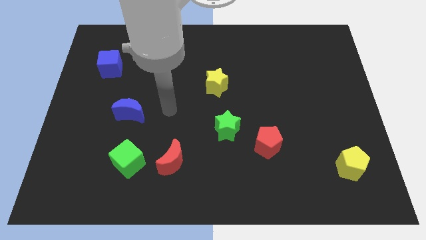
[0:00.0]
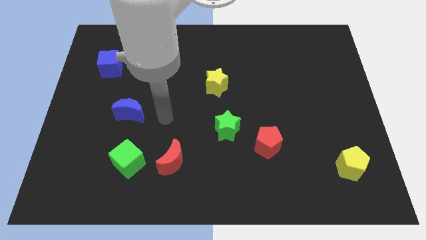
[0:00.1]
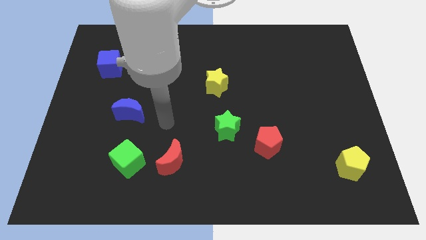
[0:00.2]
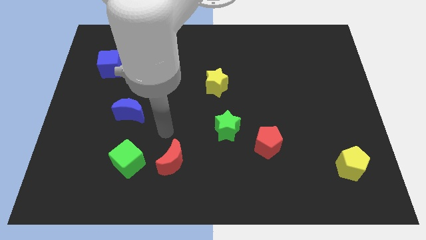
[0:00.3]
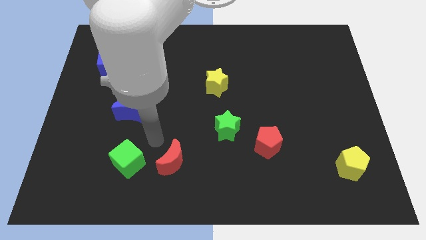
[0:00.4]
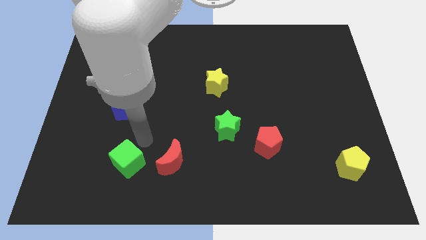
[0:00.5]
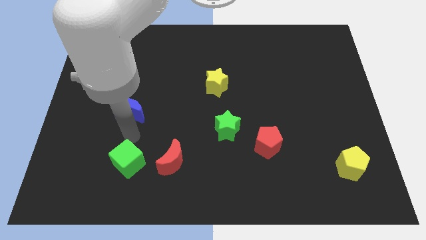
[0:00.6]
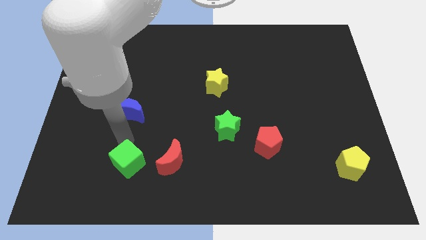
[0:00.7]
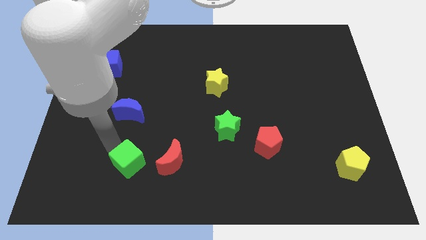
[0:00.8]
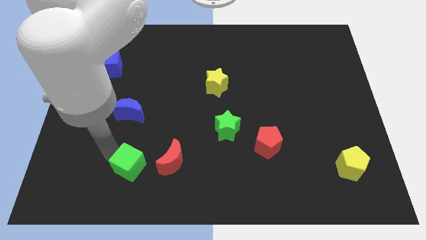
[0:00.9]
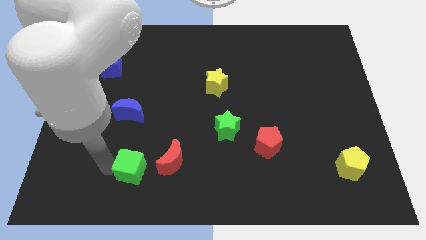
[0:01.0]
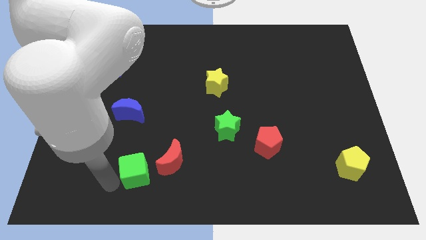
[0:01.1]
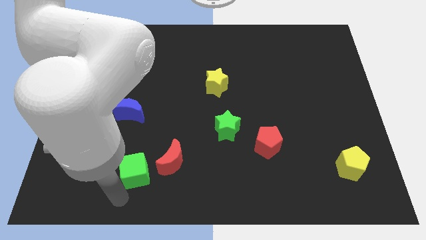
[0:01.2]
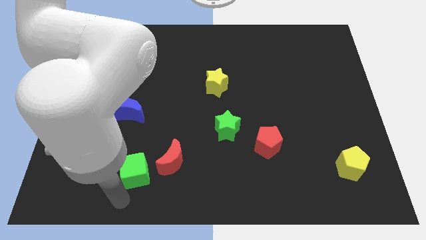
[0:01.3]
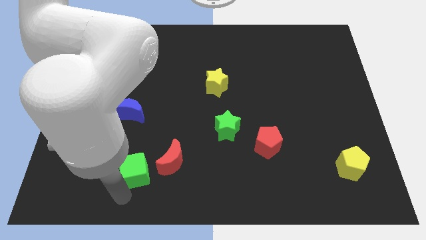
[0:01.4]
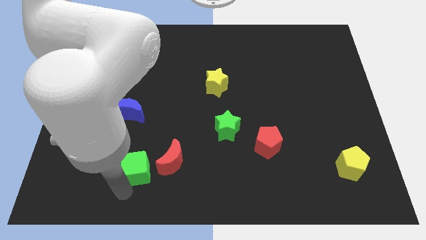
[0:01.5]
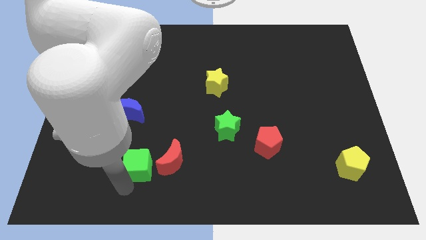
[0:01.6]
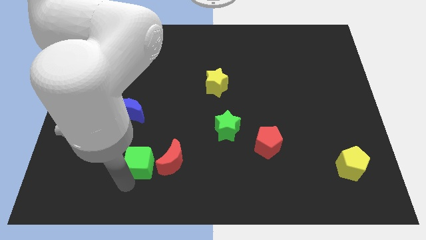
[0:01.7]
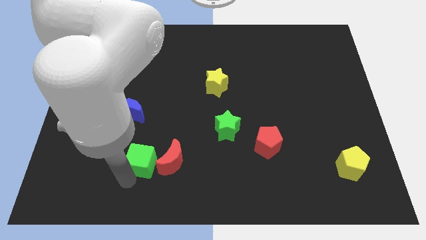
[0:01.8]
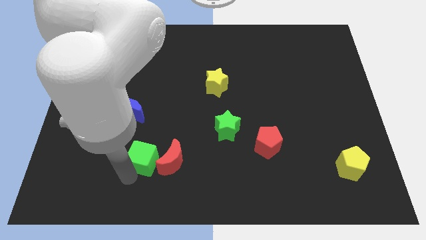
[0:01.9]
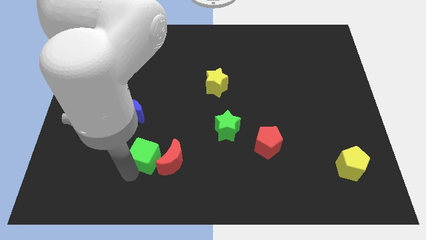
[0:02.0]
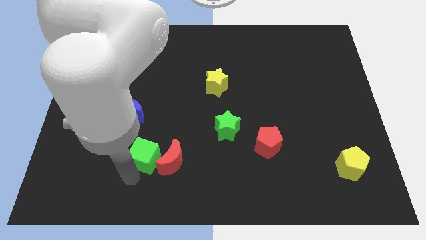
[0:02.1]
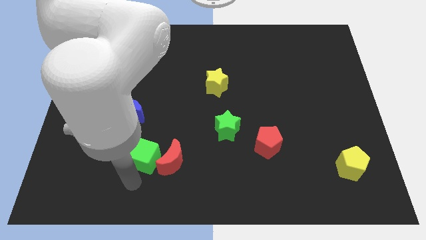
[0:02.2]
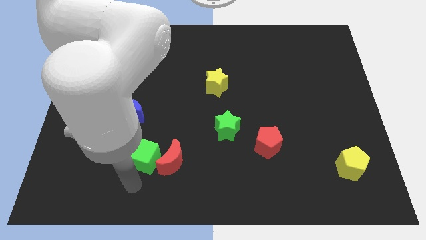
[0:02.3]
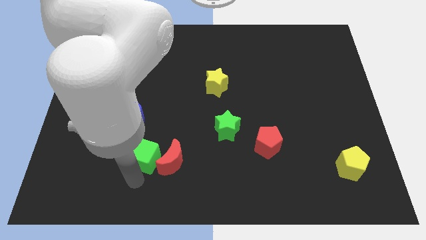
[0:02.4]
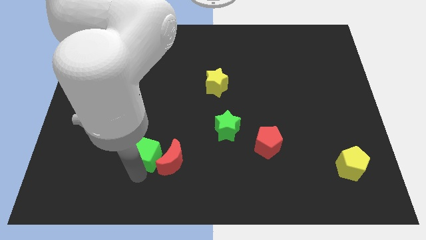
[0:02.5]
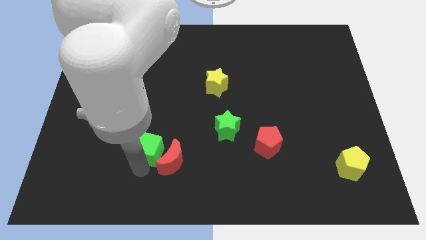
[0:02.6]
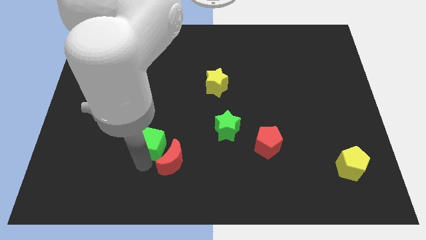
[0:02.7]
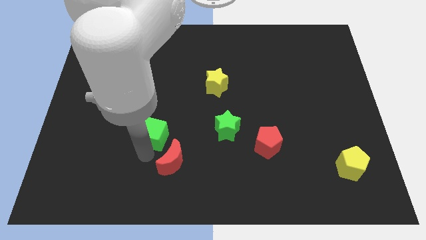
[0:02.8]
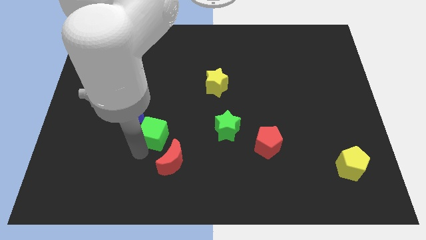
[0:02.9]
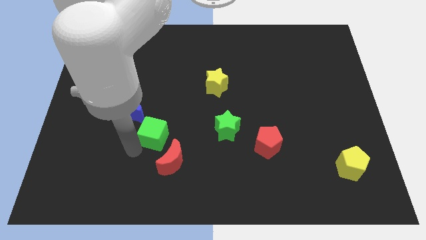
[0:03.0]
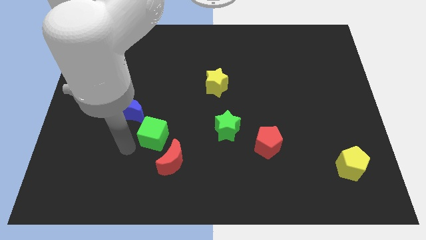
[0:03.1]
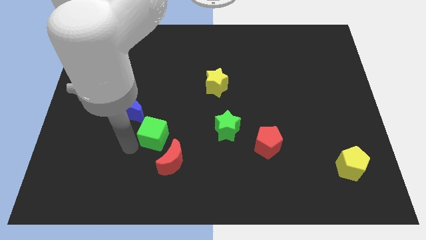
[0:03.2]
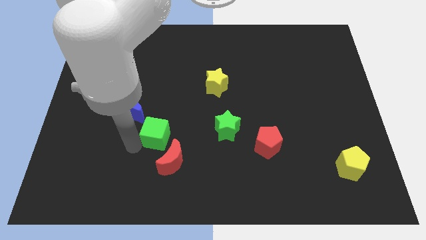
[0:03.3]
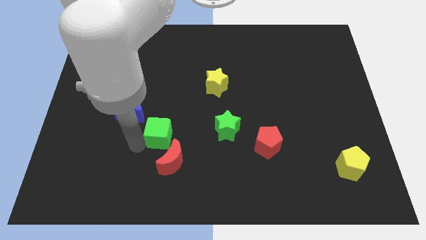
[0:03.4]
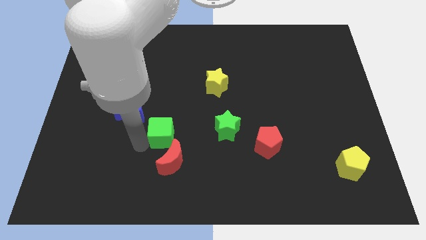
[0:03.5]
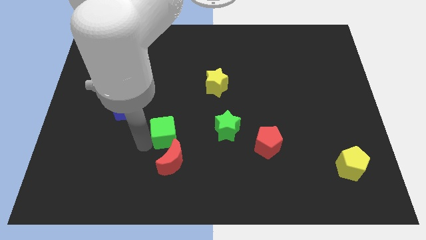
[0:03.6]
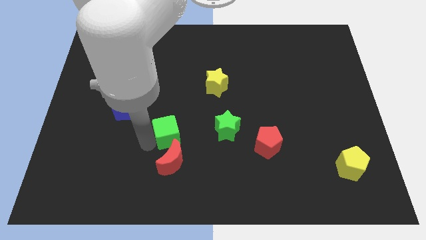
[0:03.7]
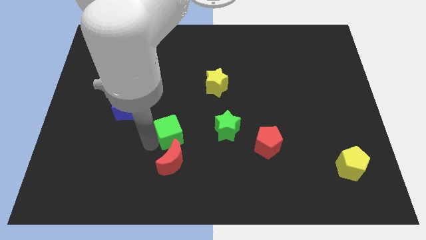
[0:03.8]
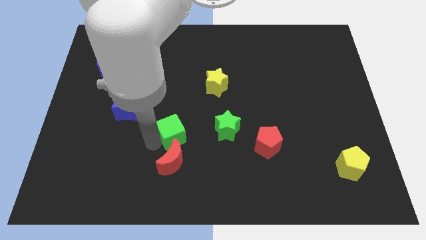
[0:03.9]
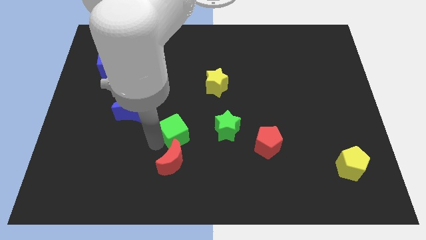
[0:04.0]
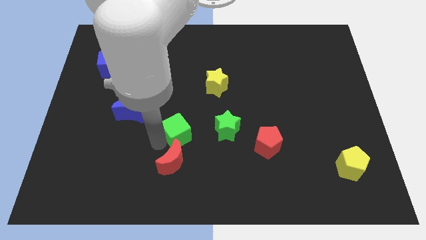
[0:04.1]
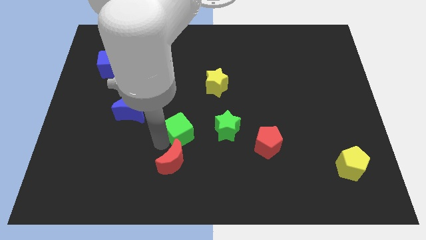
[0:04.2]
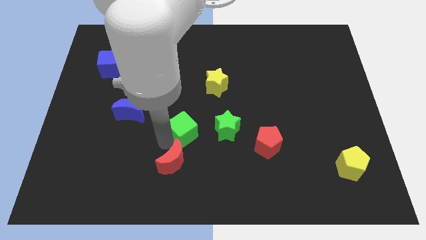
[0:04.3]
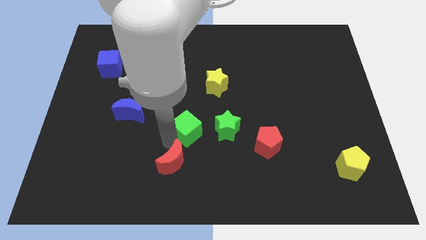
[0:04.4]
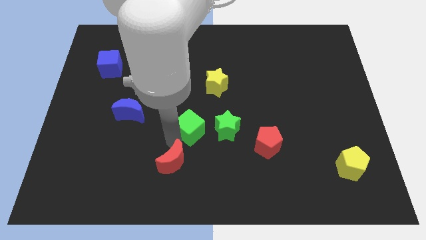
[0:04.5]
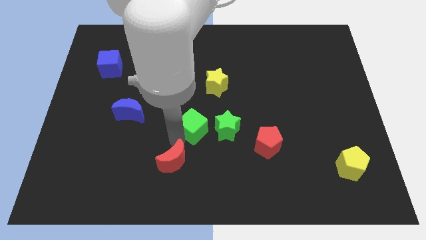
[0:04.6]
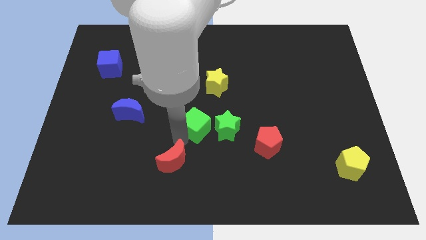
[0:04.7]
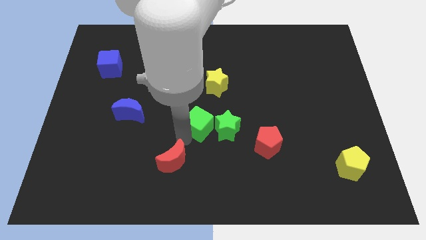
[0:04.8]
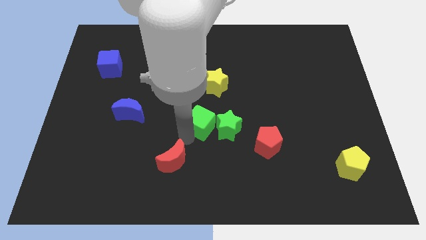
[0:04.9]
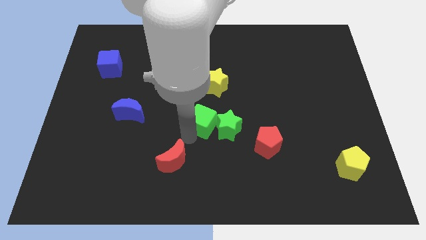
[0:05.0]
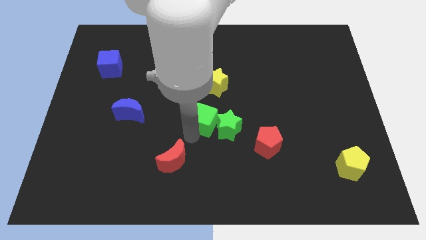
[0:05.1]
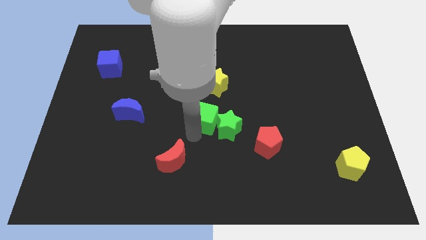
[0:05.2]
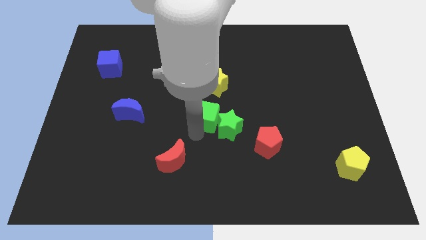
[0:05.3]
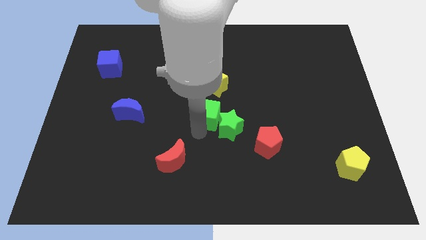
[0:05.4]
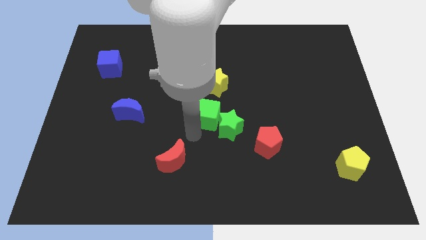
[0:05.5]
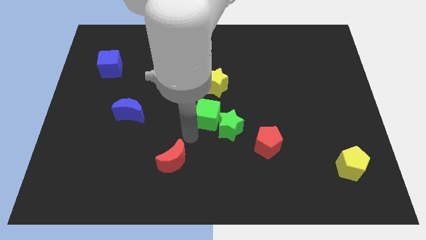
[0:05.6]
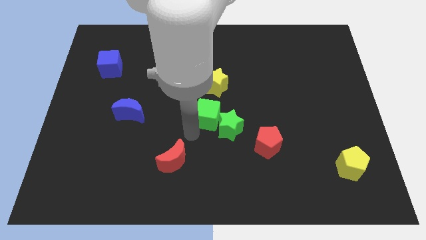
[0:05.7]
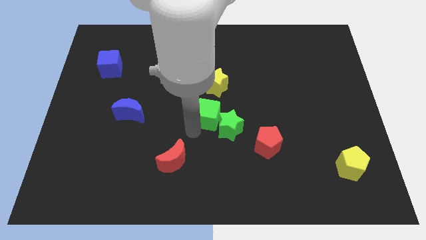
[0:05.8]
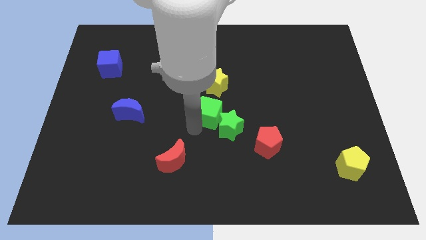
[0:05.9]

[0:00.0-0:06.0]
move the green cube diagonally upwards and right

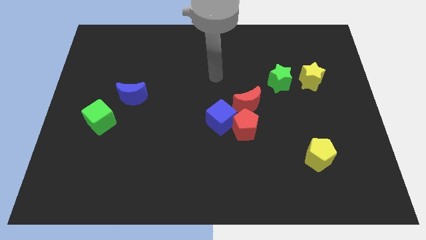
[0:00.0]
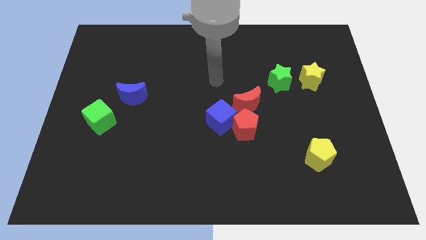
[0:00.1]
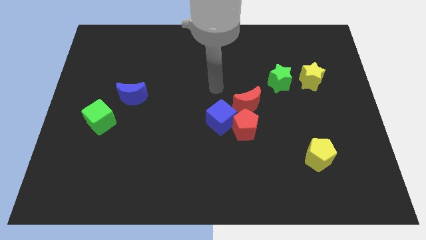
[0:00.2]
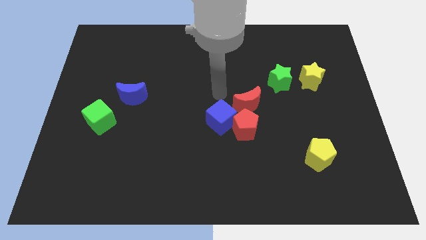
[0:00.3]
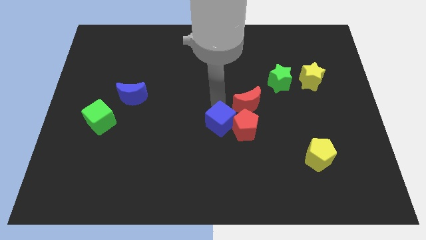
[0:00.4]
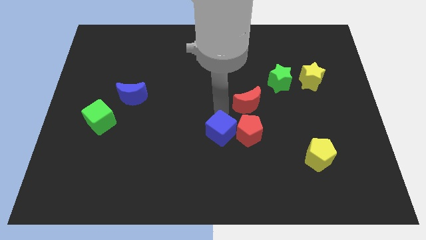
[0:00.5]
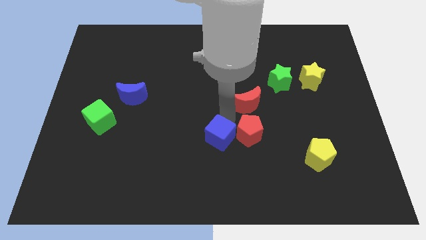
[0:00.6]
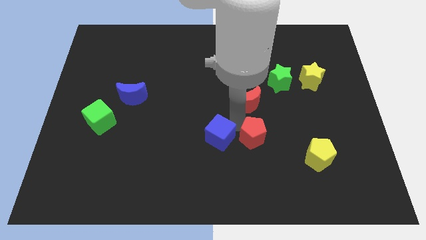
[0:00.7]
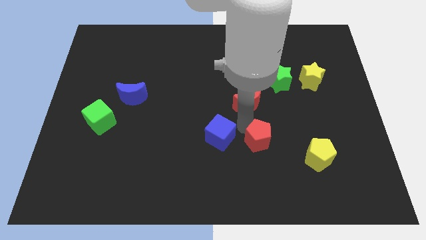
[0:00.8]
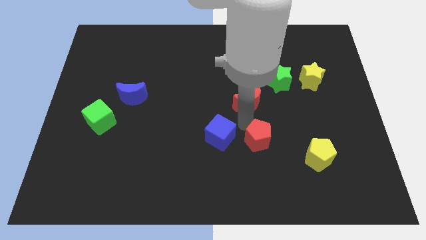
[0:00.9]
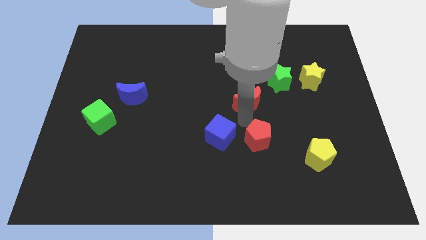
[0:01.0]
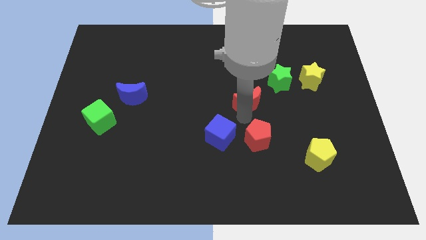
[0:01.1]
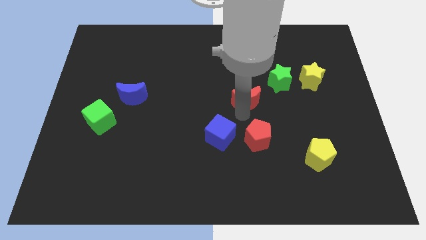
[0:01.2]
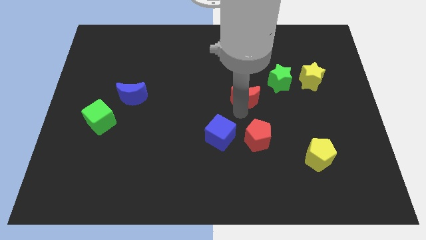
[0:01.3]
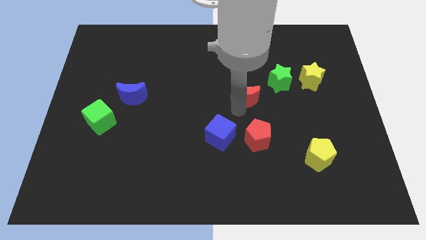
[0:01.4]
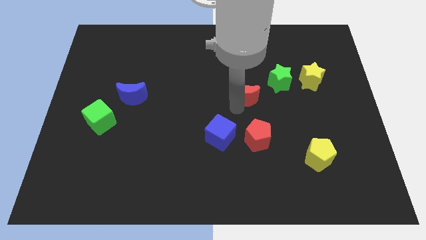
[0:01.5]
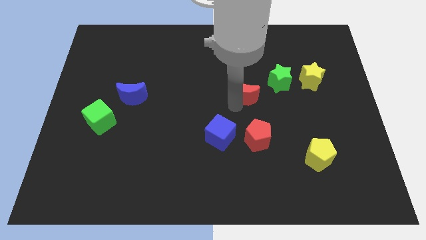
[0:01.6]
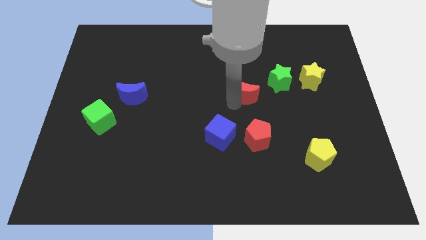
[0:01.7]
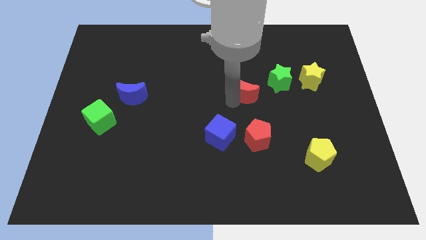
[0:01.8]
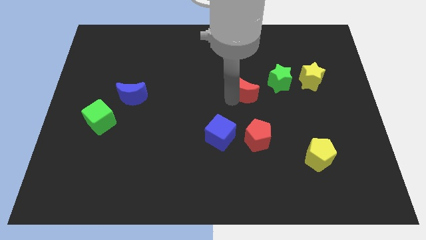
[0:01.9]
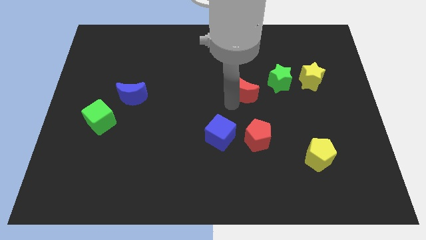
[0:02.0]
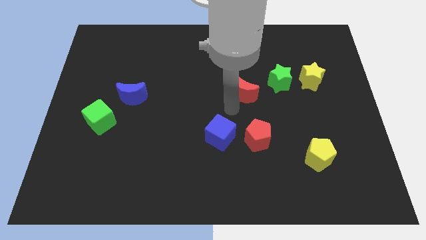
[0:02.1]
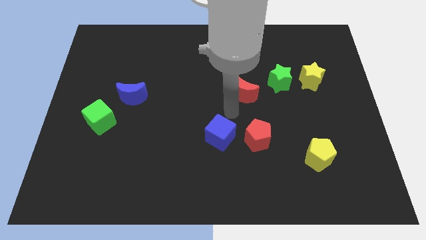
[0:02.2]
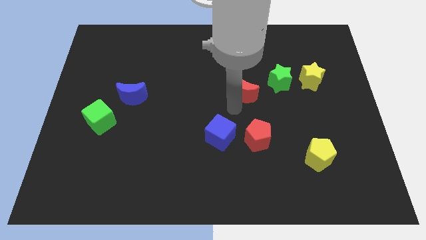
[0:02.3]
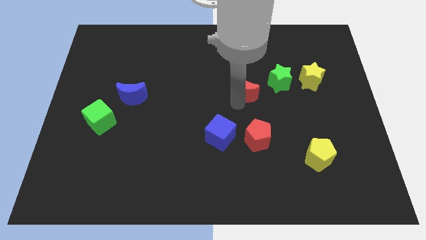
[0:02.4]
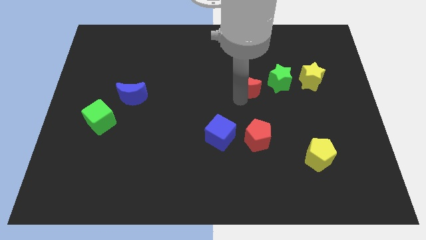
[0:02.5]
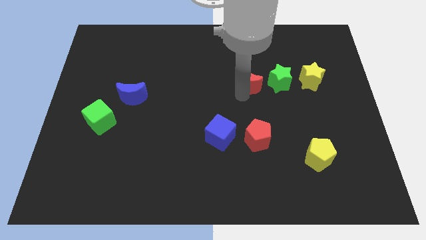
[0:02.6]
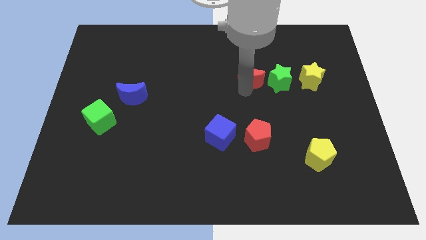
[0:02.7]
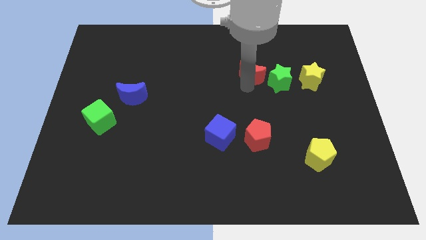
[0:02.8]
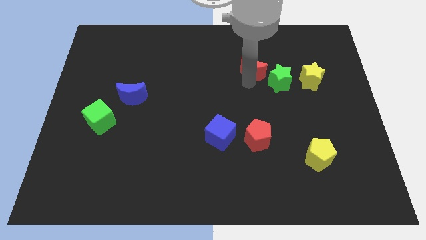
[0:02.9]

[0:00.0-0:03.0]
slightly push the red moon upwards and right
